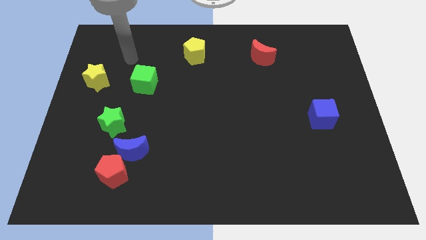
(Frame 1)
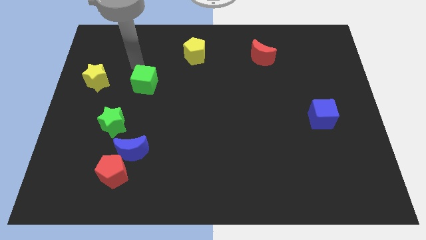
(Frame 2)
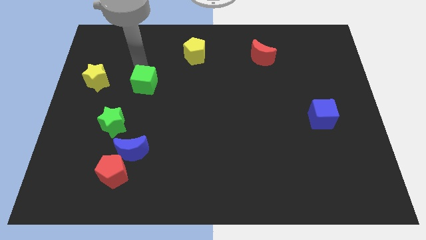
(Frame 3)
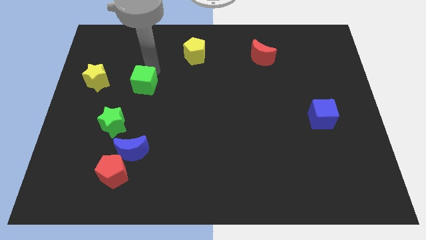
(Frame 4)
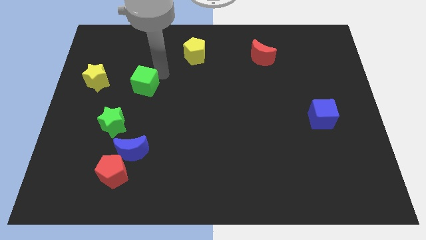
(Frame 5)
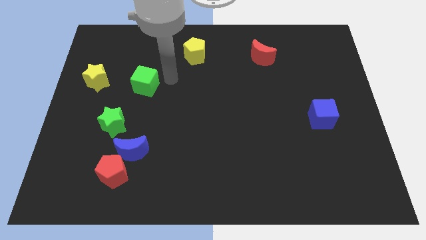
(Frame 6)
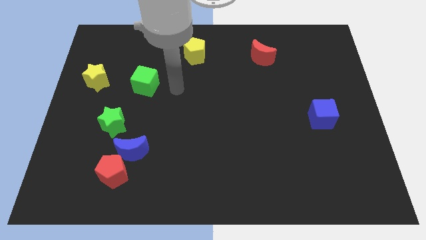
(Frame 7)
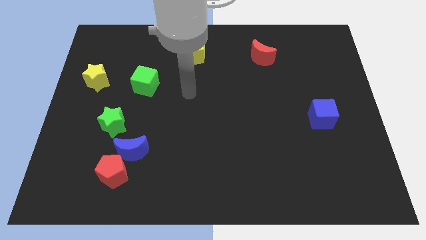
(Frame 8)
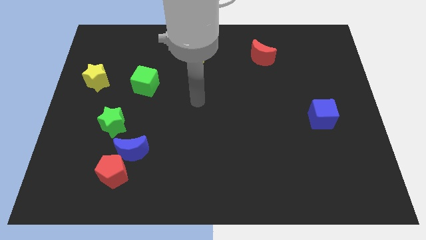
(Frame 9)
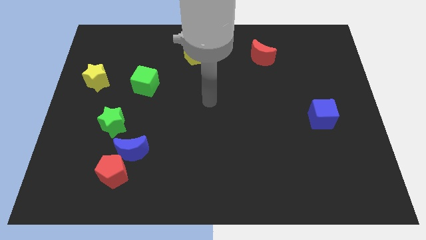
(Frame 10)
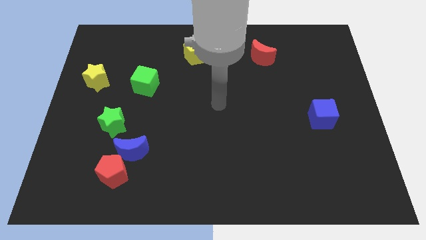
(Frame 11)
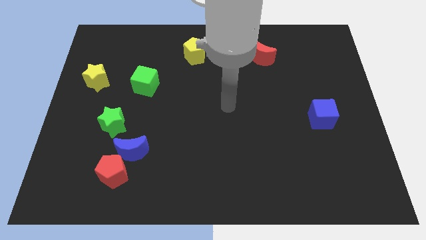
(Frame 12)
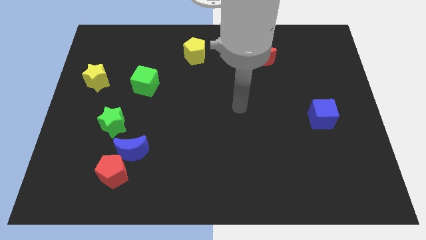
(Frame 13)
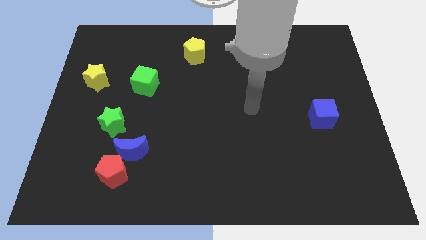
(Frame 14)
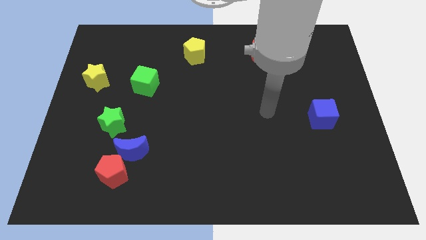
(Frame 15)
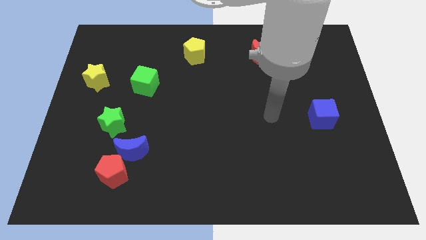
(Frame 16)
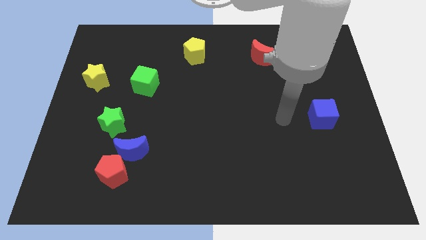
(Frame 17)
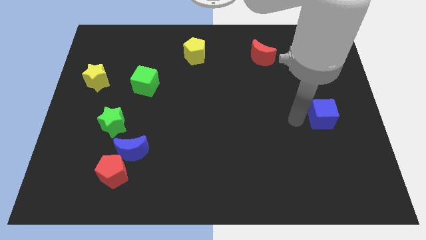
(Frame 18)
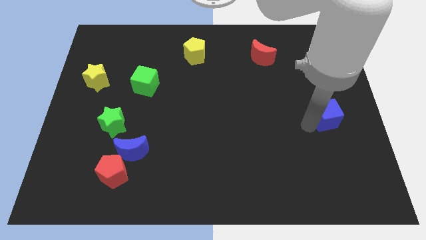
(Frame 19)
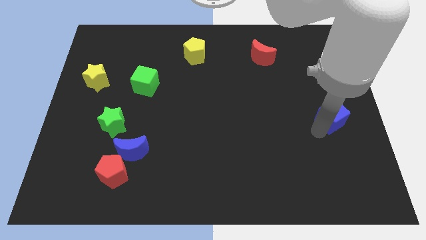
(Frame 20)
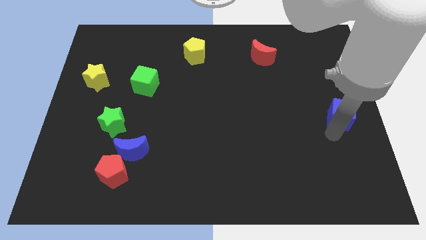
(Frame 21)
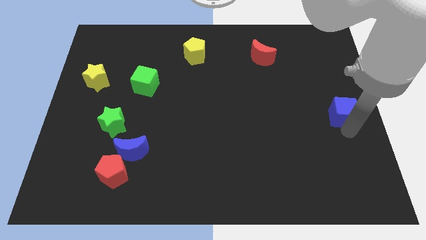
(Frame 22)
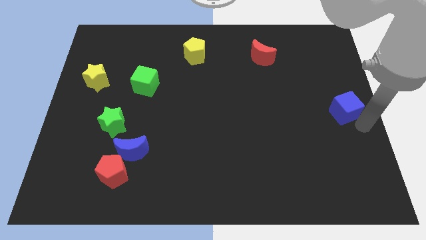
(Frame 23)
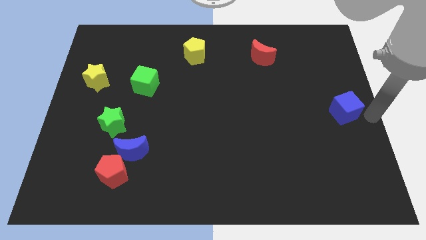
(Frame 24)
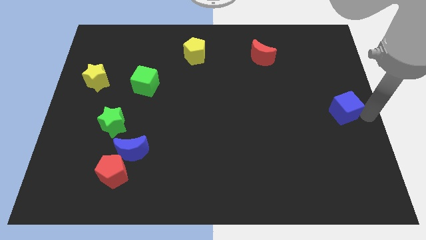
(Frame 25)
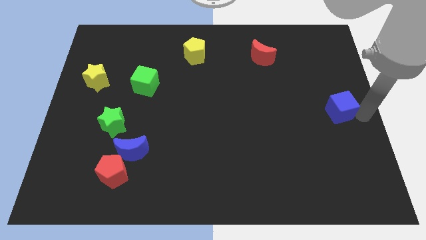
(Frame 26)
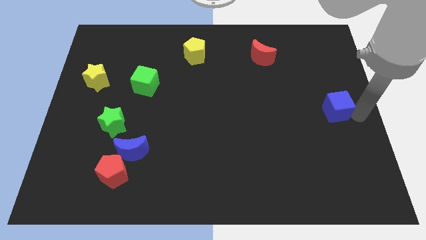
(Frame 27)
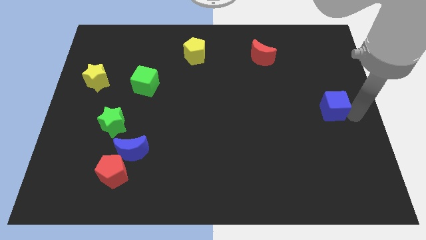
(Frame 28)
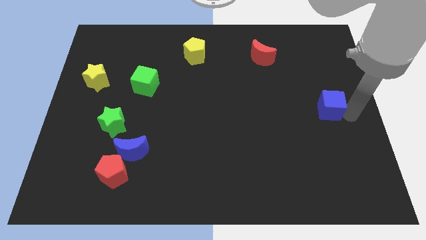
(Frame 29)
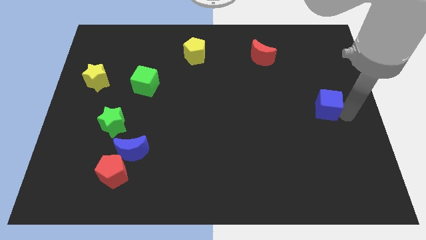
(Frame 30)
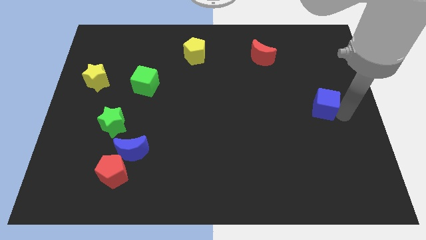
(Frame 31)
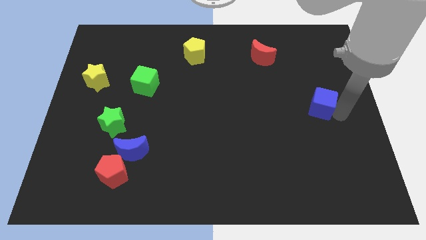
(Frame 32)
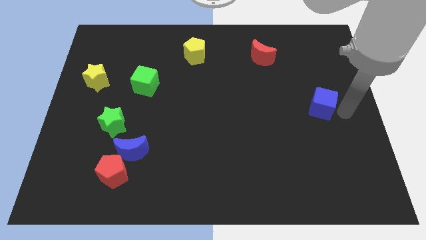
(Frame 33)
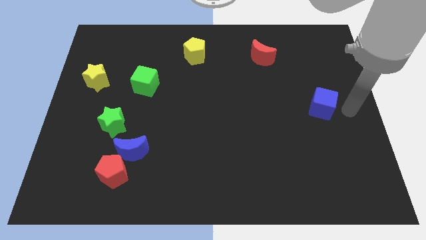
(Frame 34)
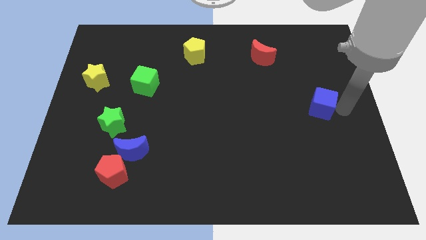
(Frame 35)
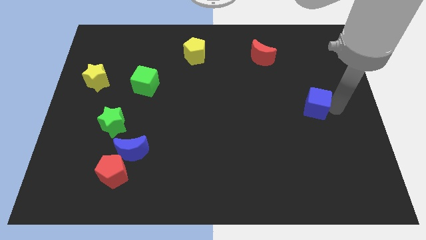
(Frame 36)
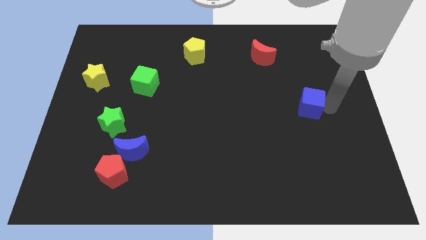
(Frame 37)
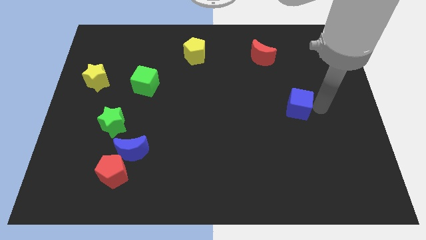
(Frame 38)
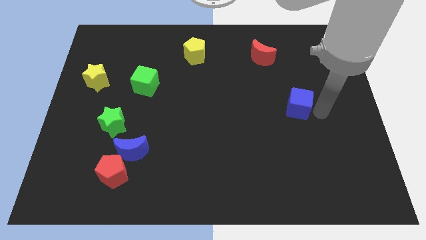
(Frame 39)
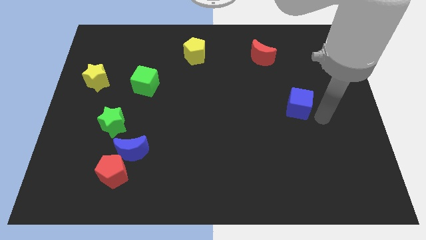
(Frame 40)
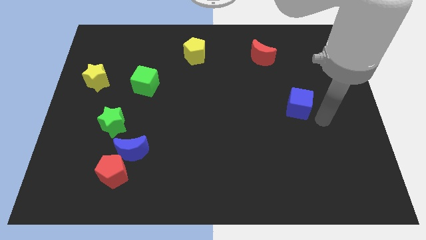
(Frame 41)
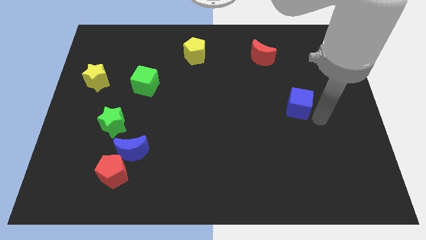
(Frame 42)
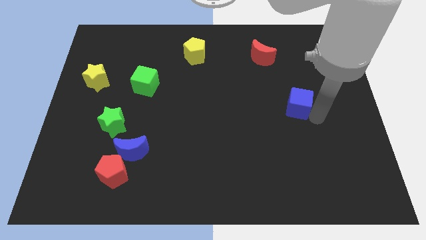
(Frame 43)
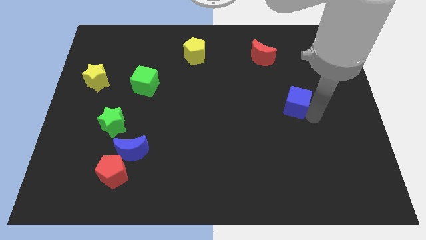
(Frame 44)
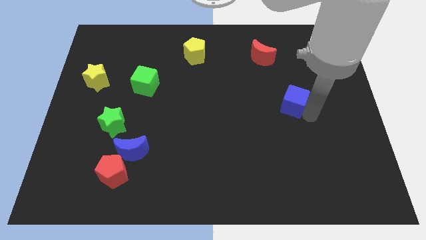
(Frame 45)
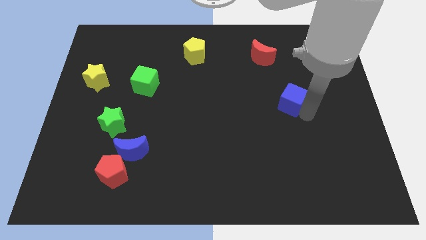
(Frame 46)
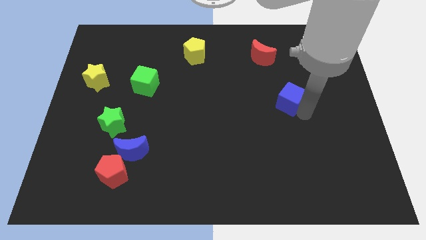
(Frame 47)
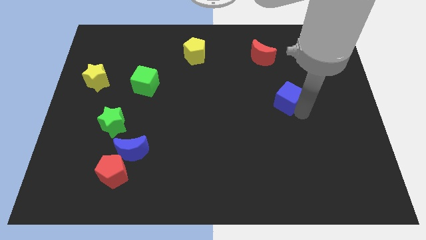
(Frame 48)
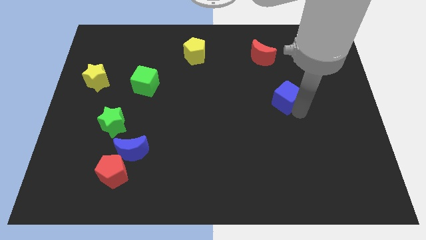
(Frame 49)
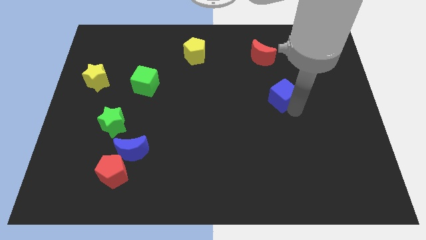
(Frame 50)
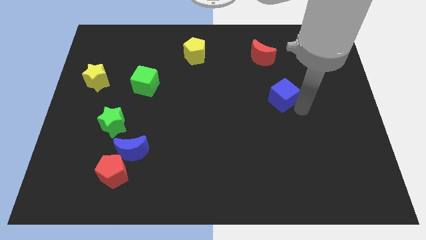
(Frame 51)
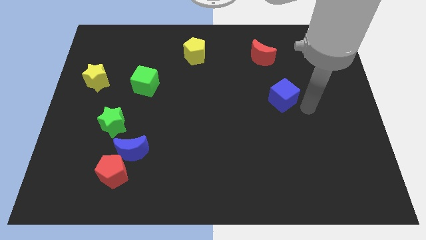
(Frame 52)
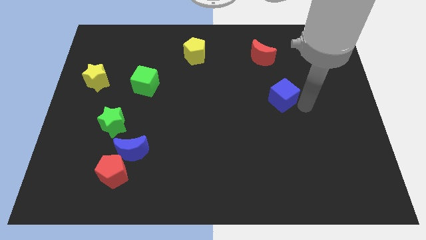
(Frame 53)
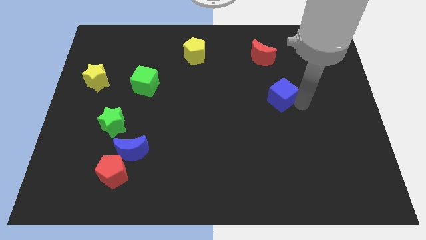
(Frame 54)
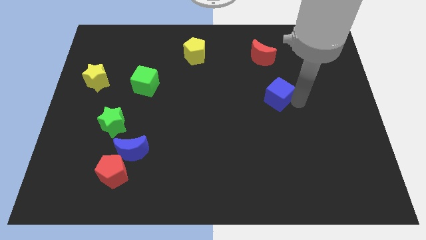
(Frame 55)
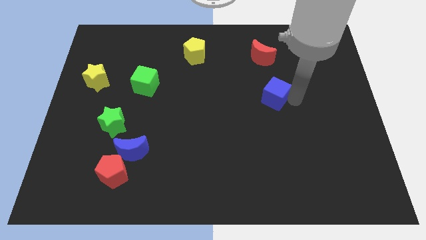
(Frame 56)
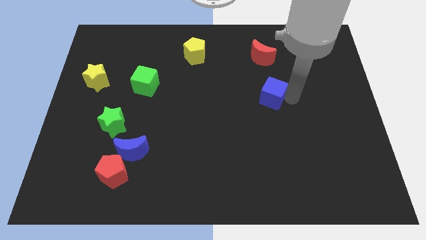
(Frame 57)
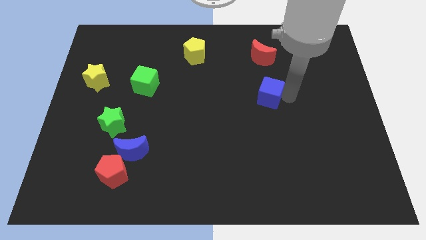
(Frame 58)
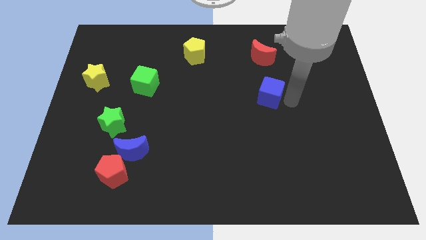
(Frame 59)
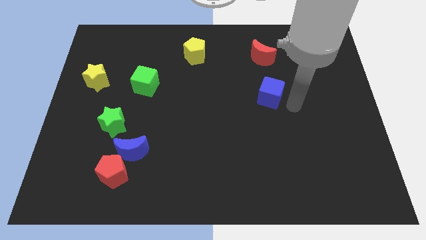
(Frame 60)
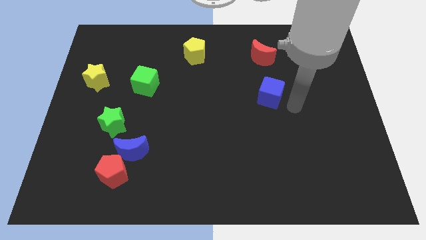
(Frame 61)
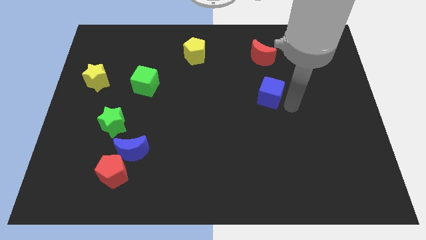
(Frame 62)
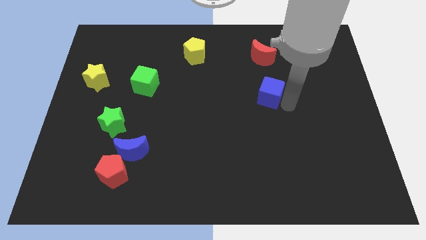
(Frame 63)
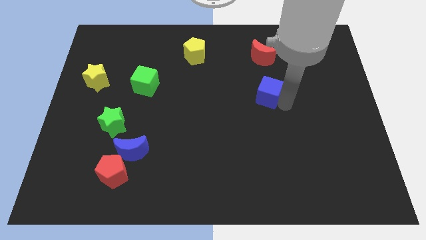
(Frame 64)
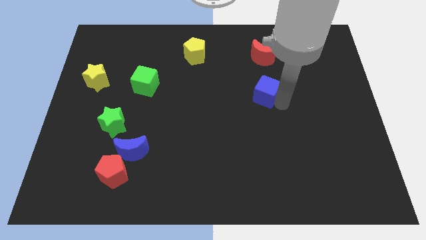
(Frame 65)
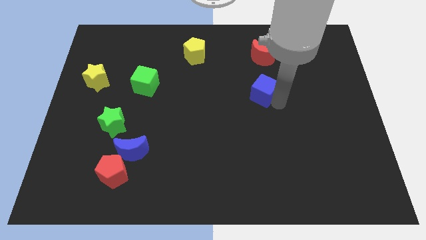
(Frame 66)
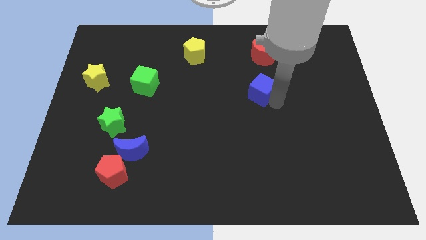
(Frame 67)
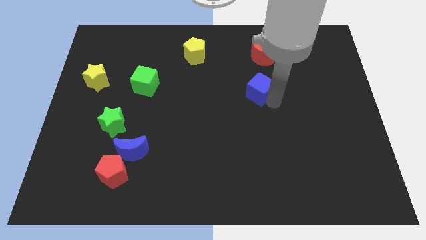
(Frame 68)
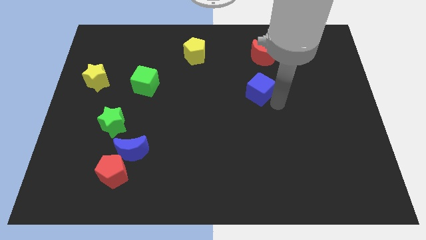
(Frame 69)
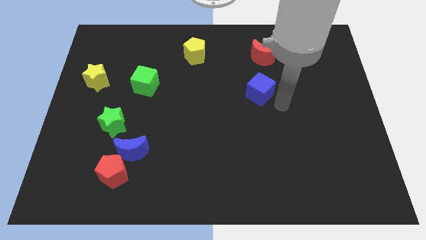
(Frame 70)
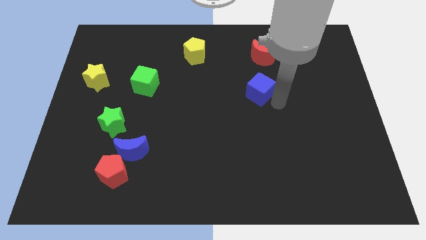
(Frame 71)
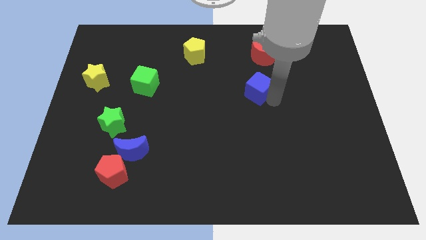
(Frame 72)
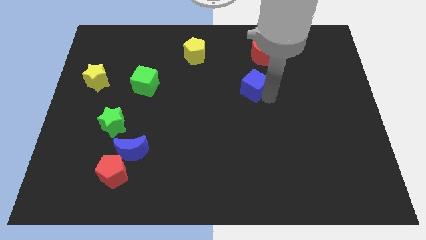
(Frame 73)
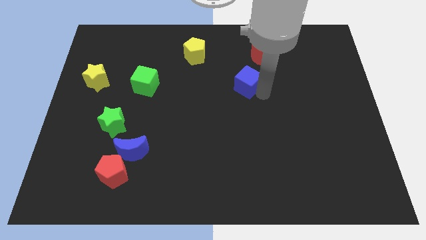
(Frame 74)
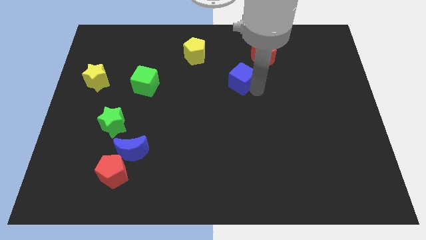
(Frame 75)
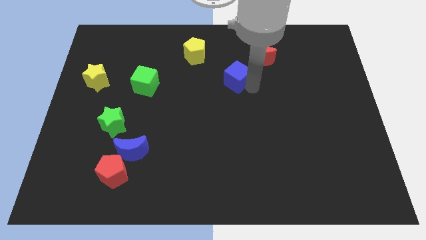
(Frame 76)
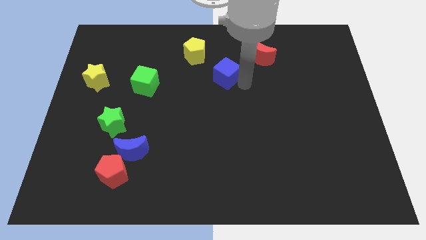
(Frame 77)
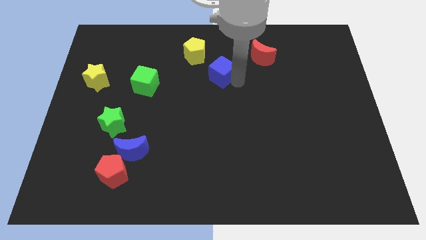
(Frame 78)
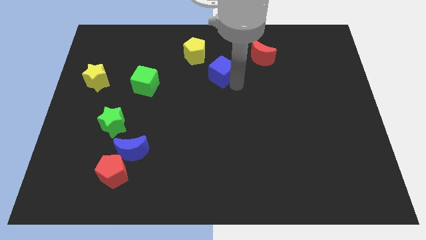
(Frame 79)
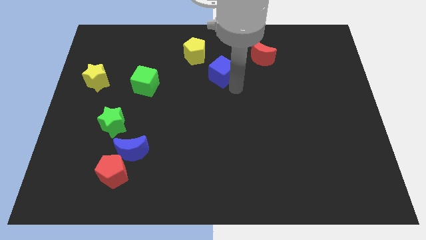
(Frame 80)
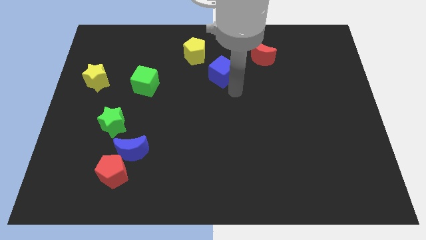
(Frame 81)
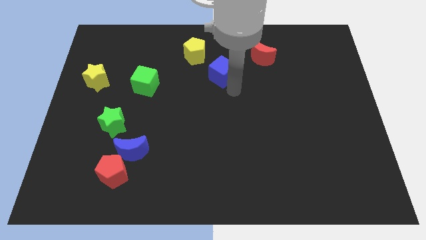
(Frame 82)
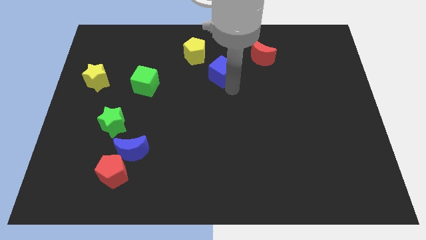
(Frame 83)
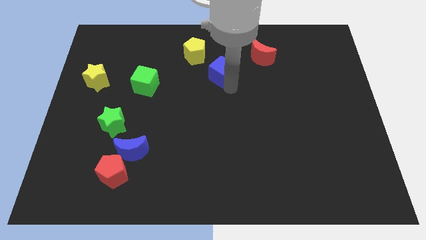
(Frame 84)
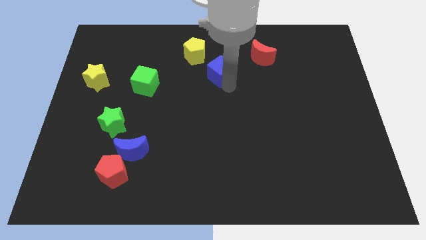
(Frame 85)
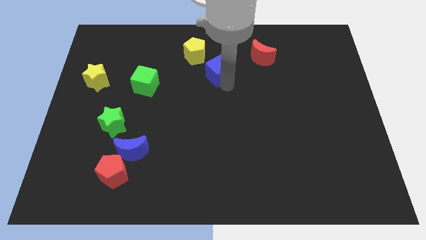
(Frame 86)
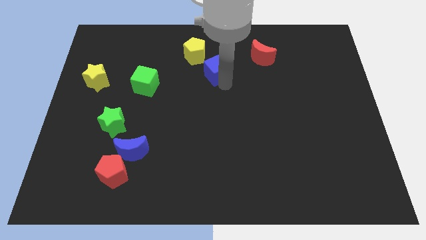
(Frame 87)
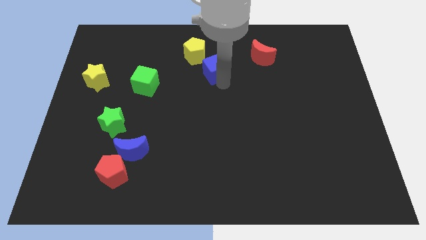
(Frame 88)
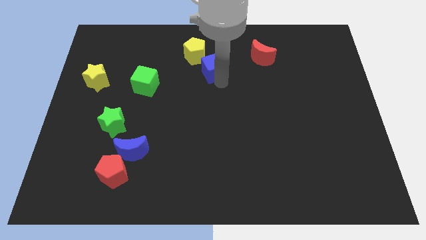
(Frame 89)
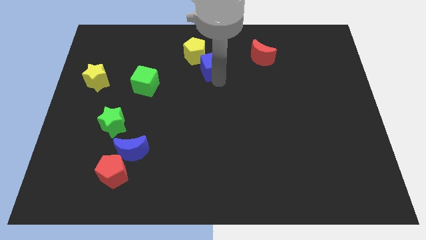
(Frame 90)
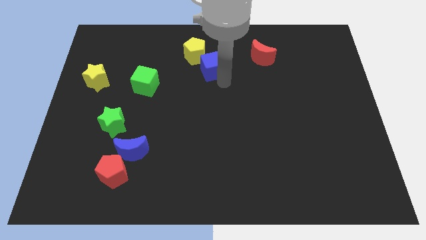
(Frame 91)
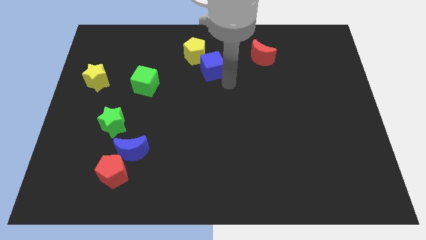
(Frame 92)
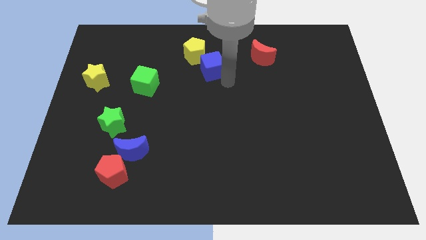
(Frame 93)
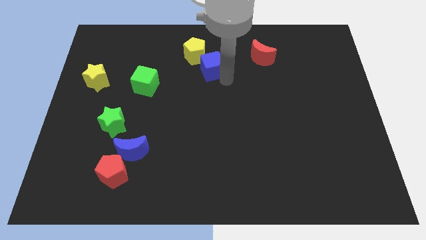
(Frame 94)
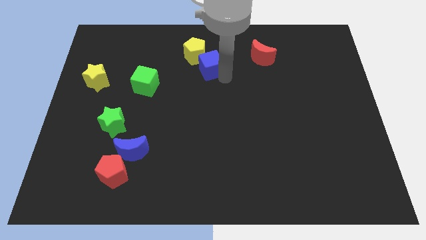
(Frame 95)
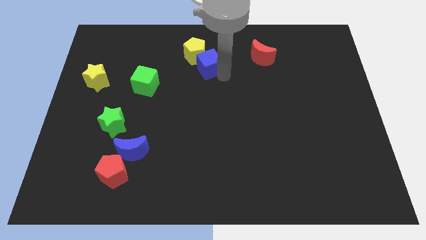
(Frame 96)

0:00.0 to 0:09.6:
slide the blue cube close to the yellow pentagon
